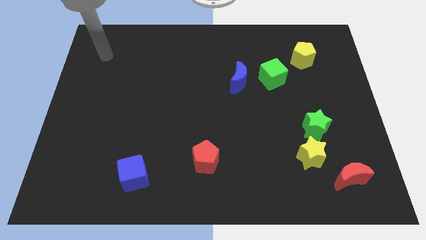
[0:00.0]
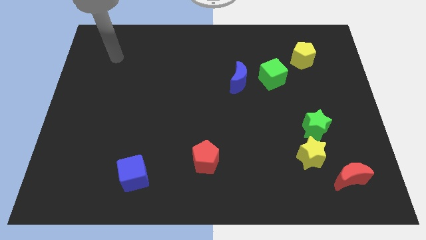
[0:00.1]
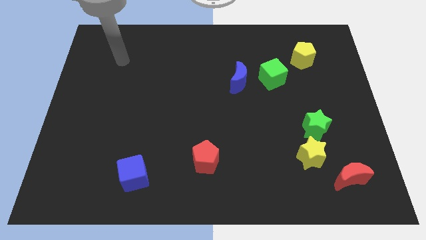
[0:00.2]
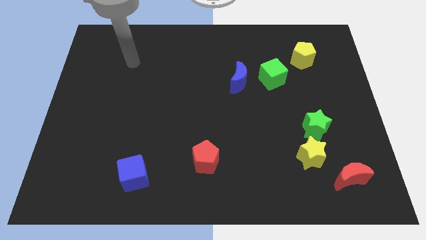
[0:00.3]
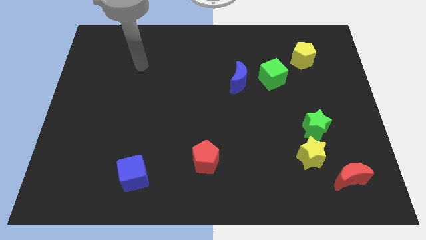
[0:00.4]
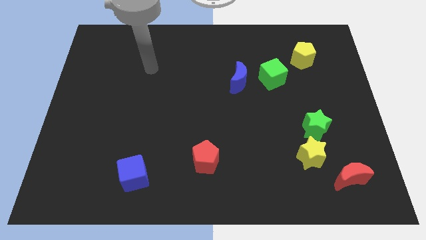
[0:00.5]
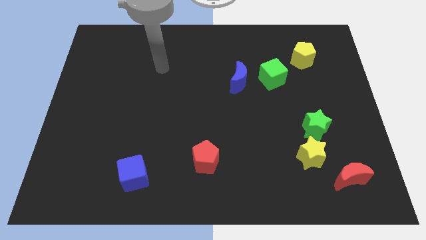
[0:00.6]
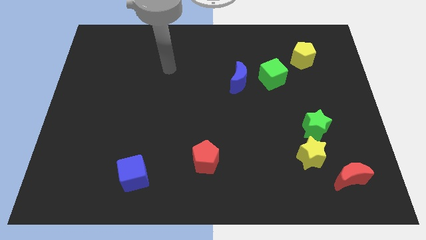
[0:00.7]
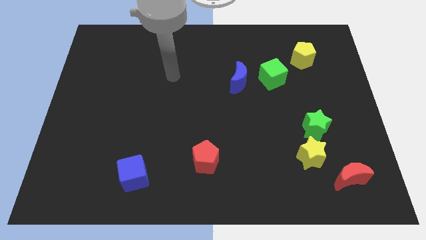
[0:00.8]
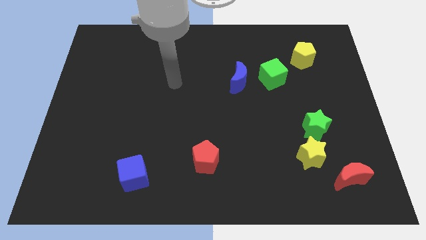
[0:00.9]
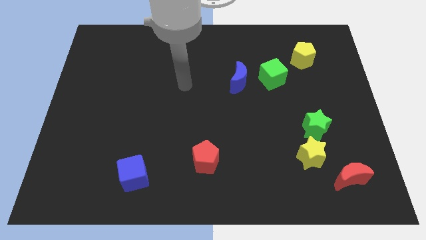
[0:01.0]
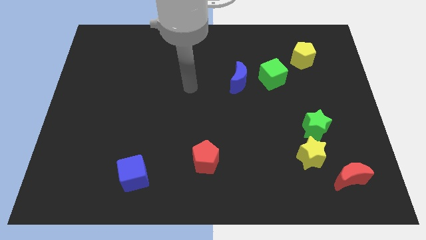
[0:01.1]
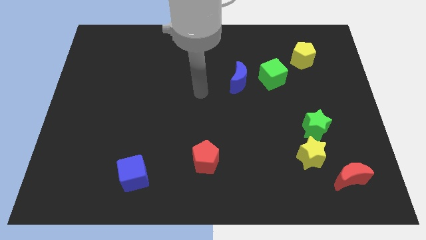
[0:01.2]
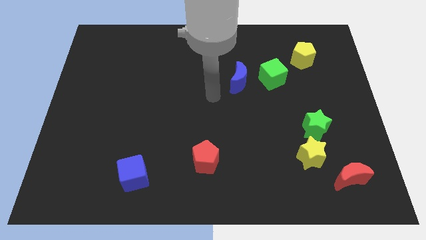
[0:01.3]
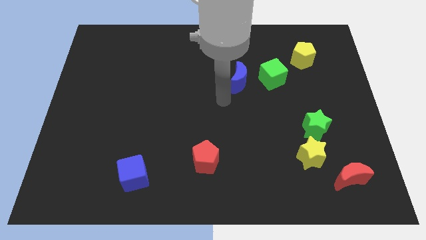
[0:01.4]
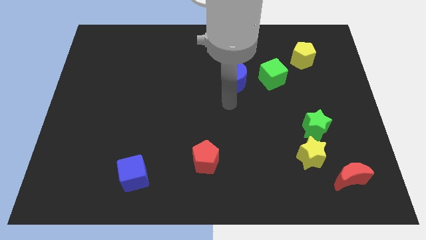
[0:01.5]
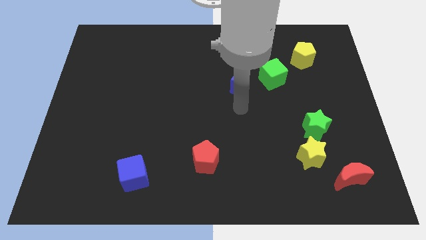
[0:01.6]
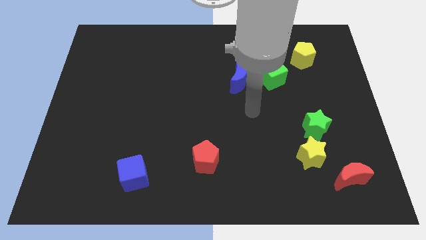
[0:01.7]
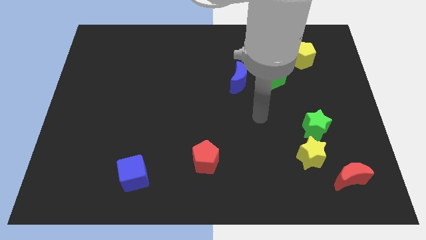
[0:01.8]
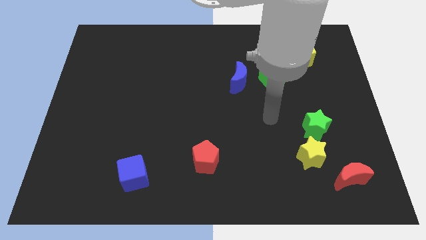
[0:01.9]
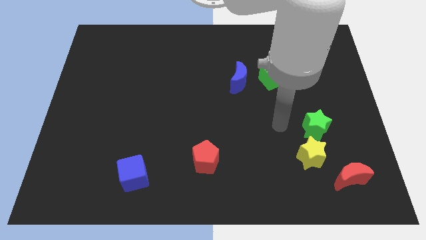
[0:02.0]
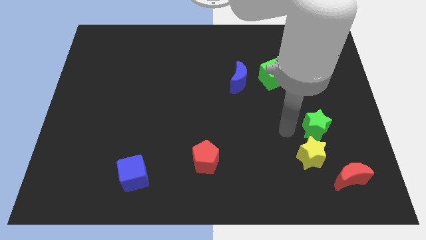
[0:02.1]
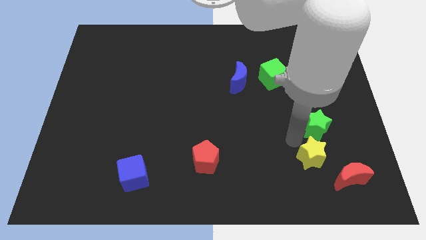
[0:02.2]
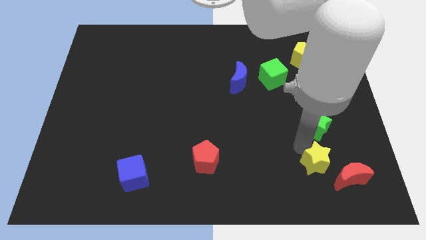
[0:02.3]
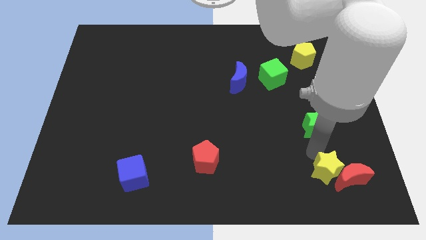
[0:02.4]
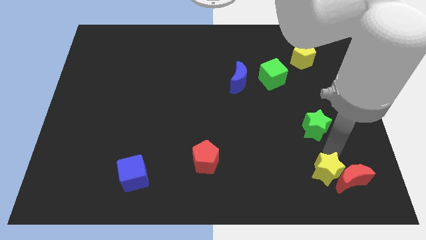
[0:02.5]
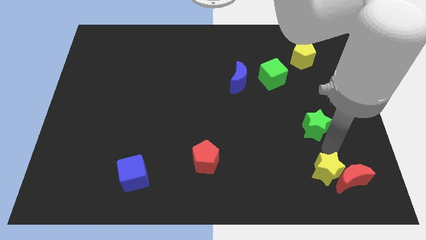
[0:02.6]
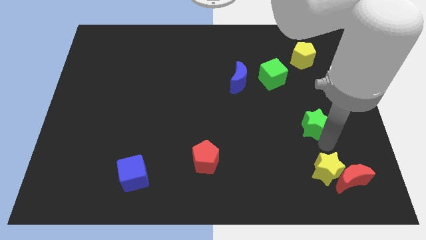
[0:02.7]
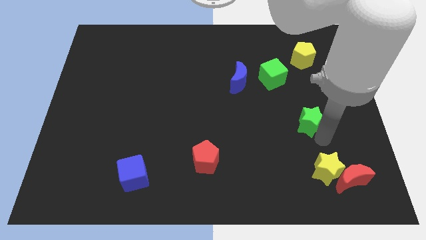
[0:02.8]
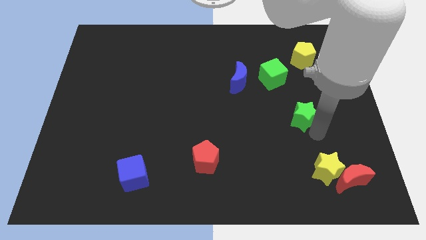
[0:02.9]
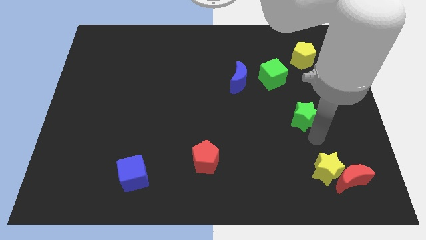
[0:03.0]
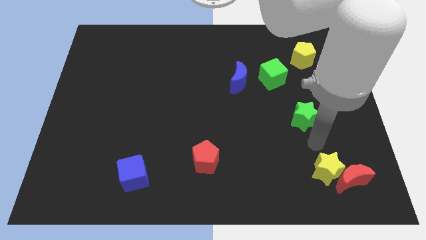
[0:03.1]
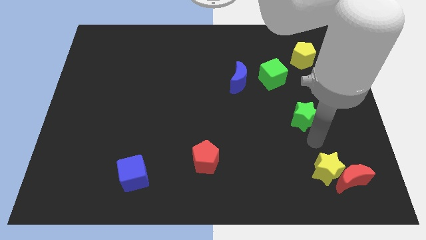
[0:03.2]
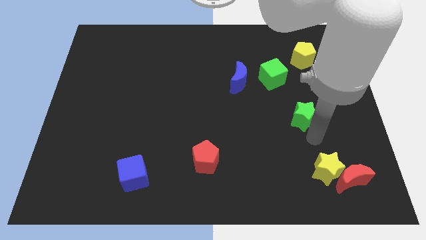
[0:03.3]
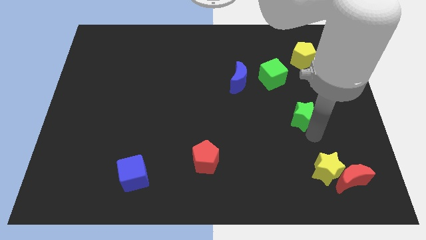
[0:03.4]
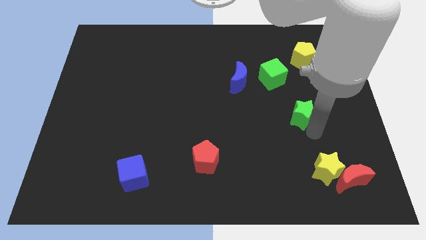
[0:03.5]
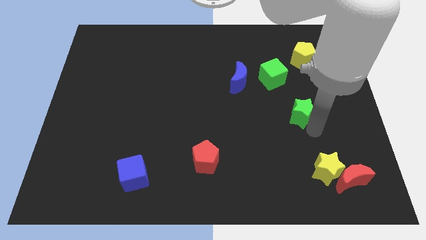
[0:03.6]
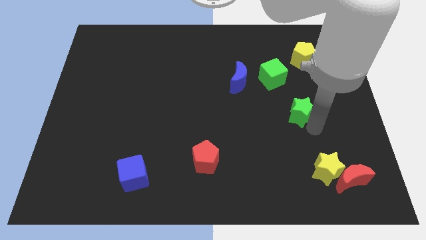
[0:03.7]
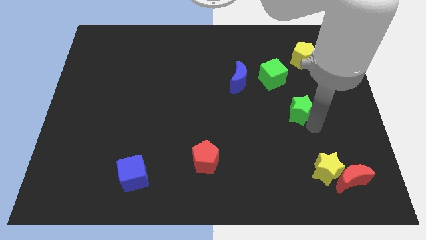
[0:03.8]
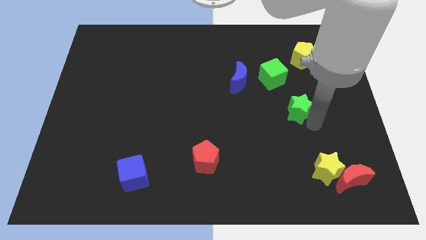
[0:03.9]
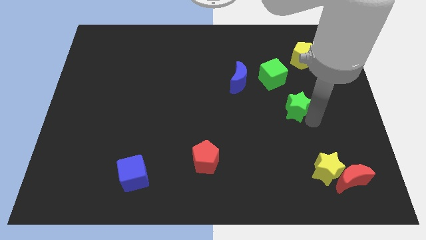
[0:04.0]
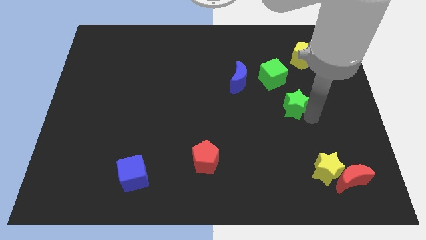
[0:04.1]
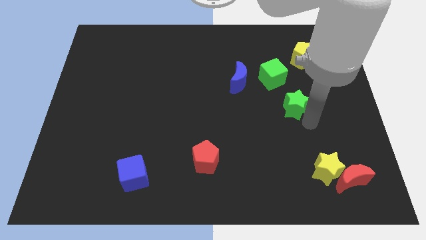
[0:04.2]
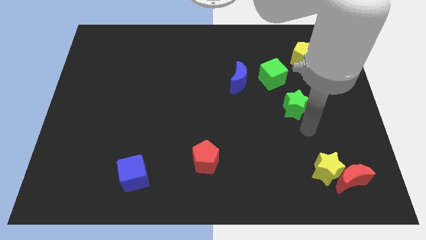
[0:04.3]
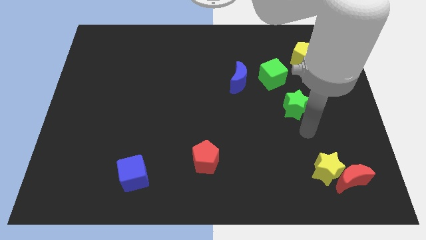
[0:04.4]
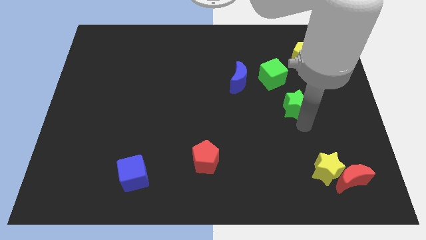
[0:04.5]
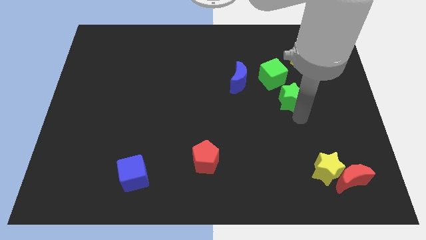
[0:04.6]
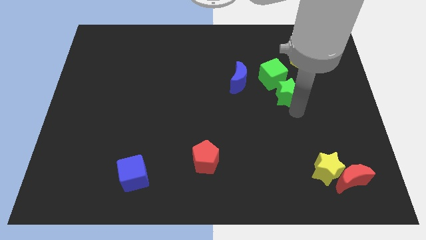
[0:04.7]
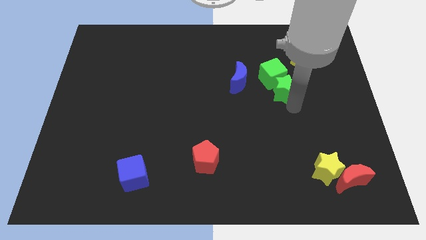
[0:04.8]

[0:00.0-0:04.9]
slide the green star towards the green cube

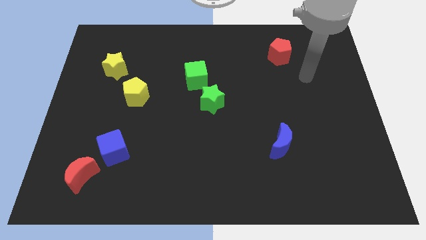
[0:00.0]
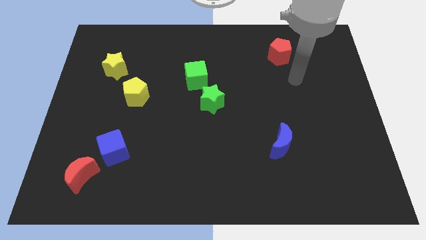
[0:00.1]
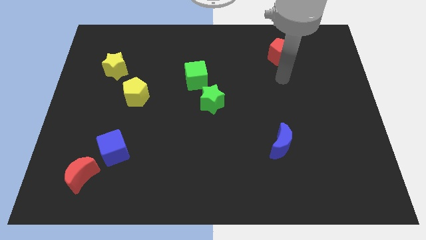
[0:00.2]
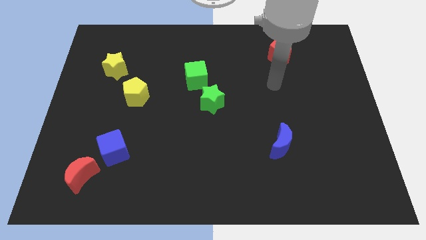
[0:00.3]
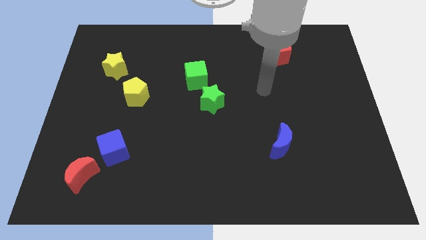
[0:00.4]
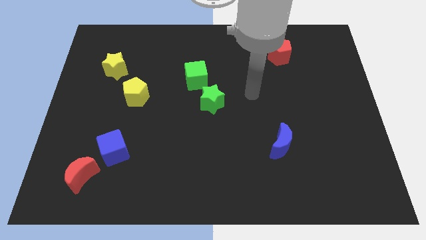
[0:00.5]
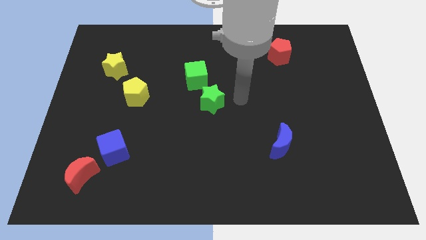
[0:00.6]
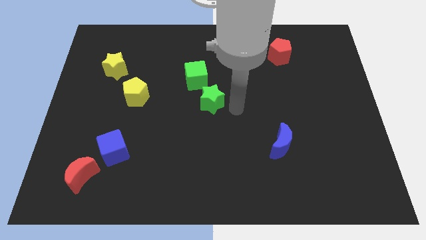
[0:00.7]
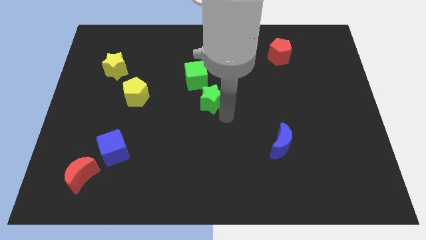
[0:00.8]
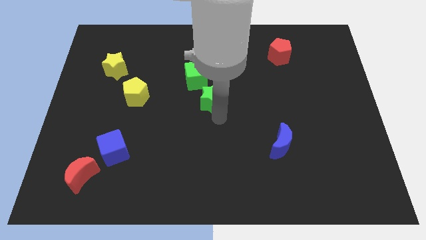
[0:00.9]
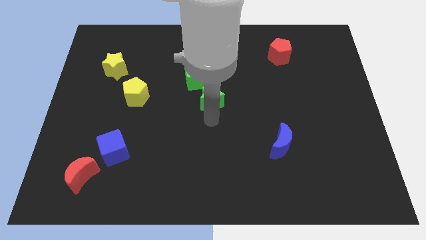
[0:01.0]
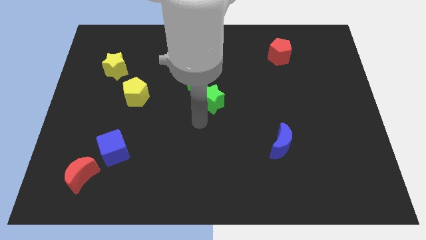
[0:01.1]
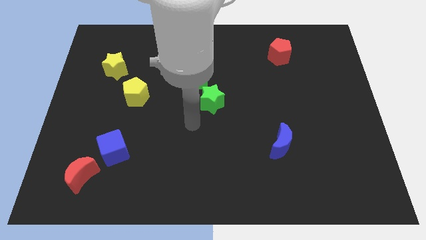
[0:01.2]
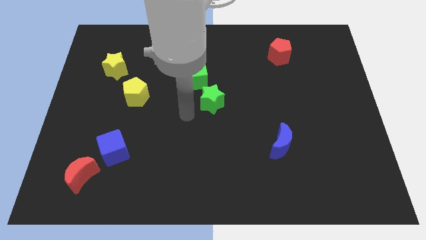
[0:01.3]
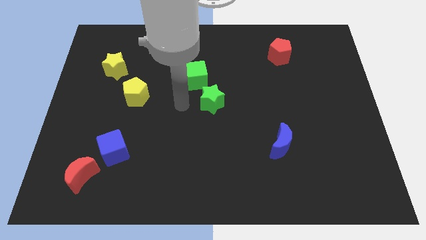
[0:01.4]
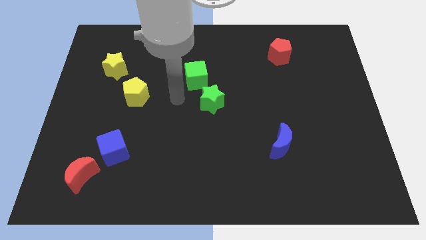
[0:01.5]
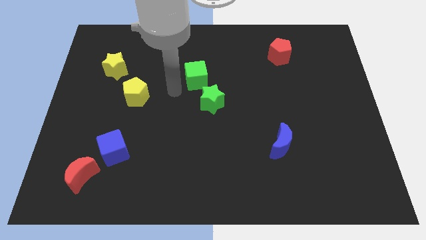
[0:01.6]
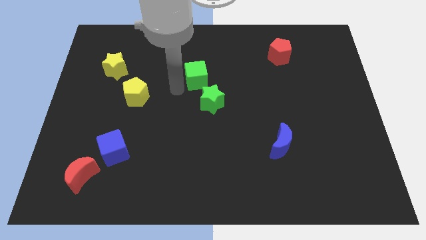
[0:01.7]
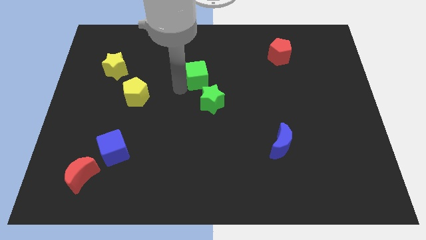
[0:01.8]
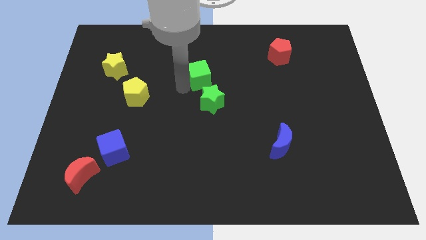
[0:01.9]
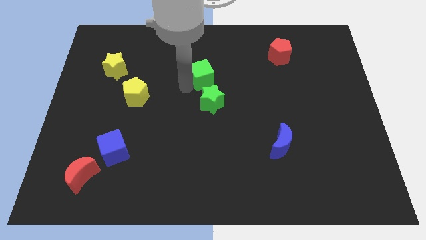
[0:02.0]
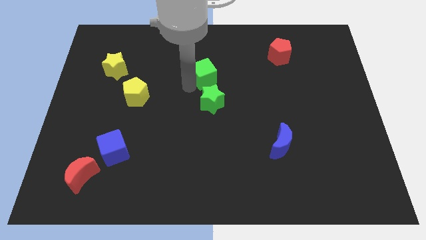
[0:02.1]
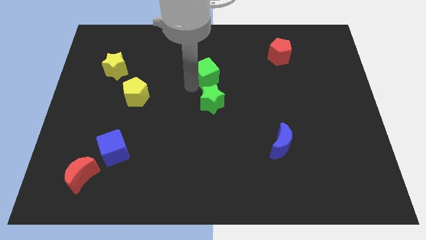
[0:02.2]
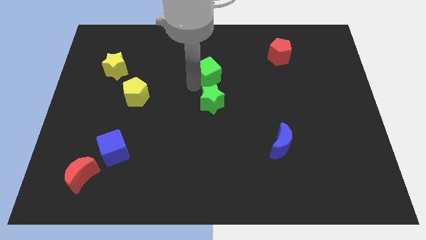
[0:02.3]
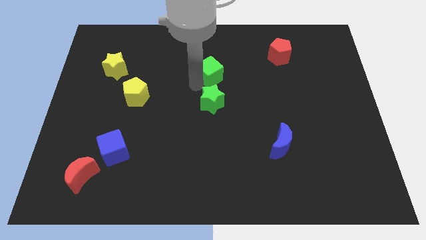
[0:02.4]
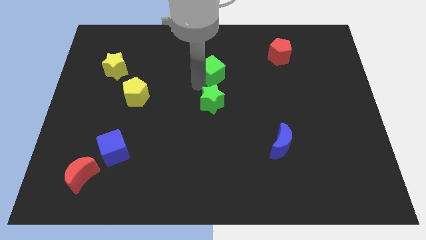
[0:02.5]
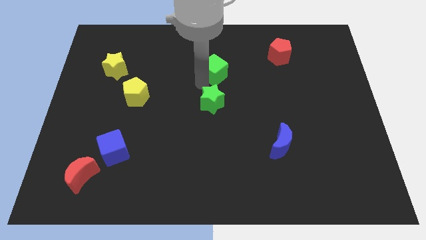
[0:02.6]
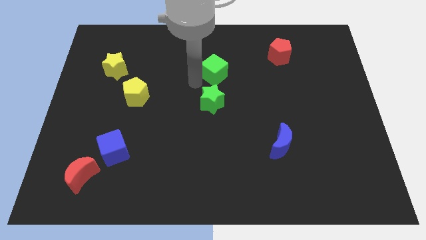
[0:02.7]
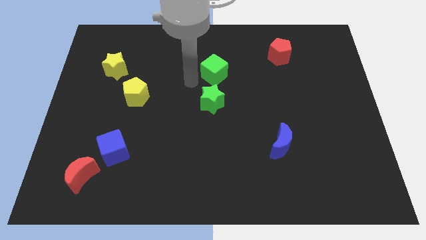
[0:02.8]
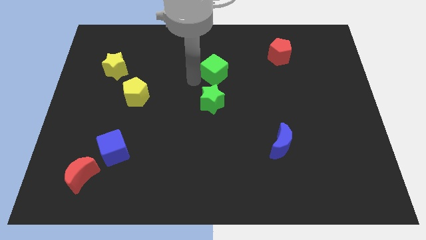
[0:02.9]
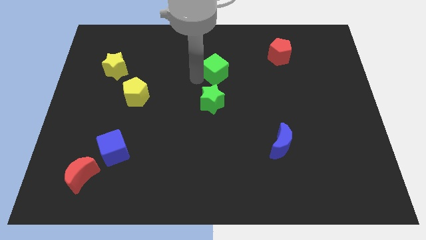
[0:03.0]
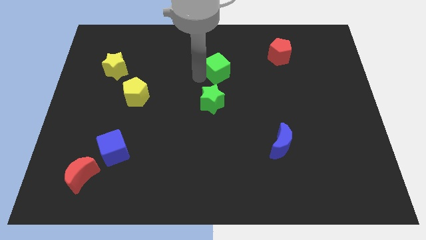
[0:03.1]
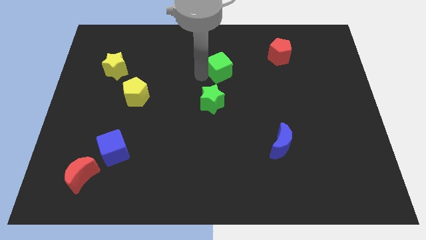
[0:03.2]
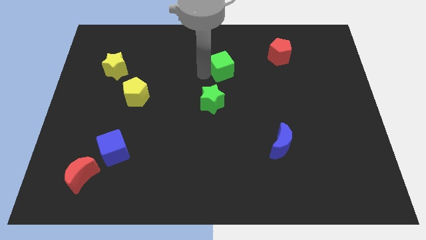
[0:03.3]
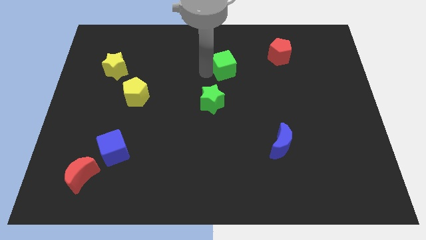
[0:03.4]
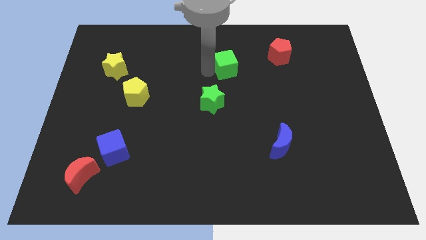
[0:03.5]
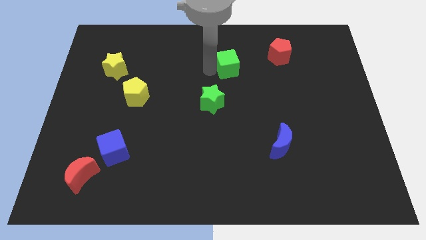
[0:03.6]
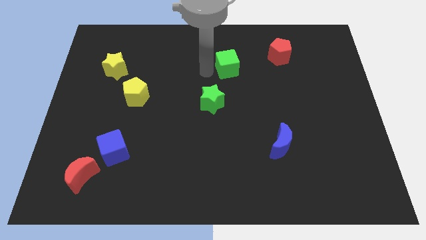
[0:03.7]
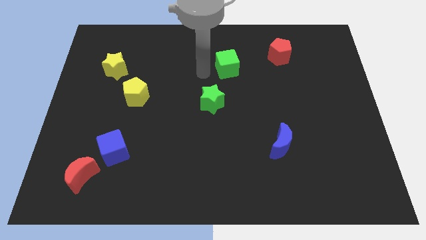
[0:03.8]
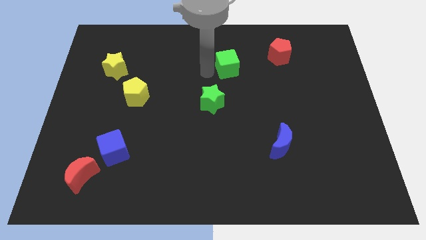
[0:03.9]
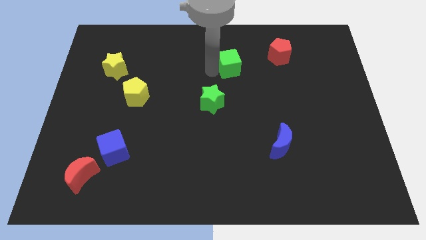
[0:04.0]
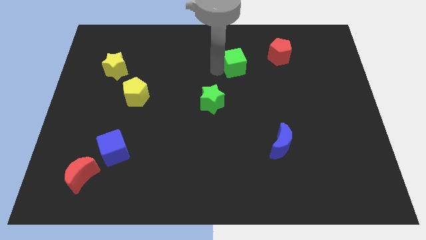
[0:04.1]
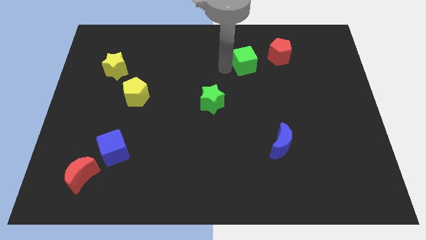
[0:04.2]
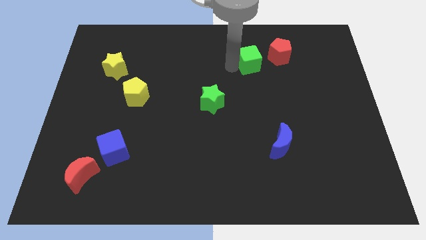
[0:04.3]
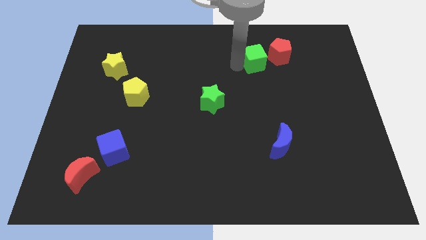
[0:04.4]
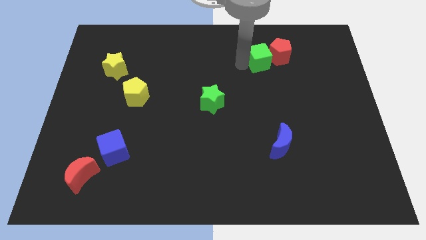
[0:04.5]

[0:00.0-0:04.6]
move the green cube to the red pentagon
